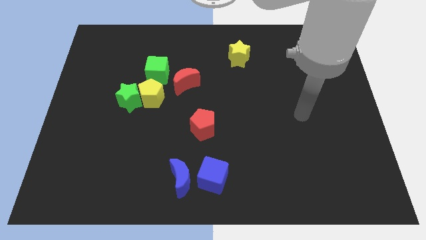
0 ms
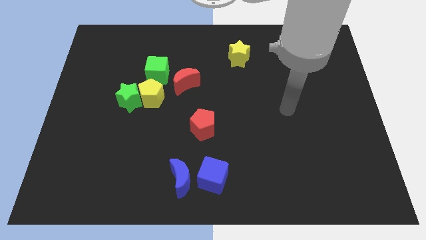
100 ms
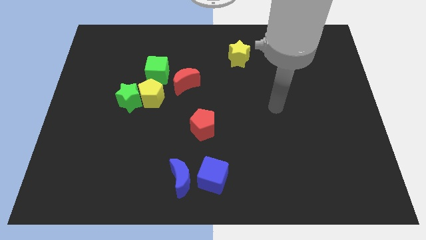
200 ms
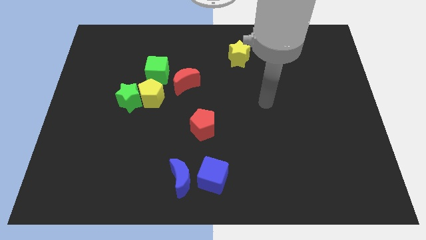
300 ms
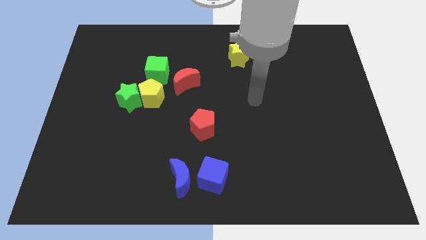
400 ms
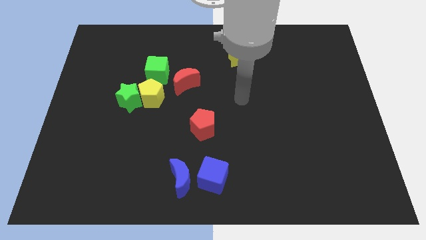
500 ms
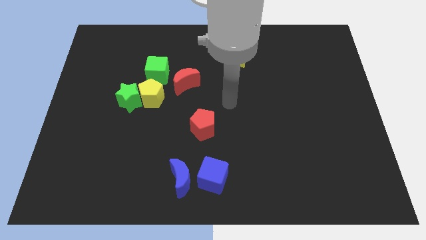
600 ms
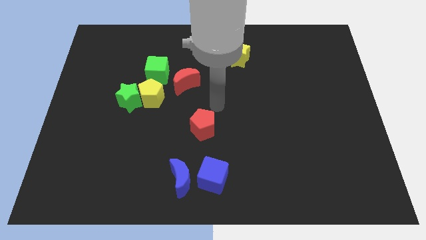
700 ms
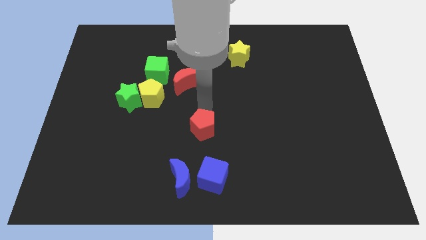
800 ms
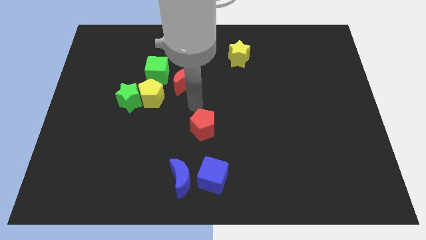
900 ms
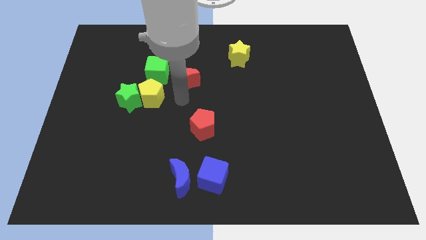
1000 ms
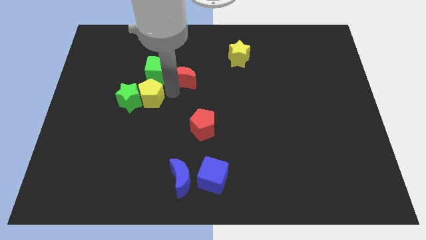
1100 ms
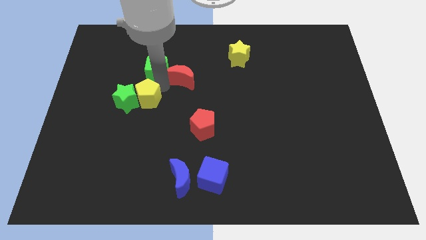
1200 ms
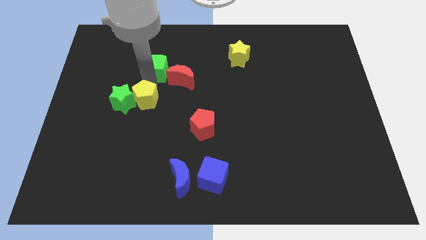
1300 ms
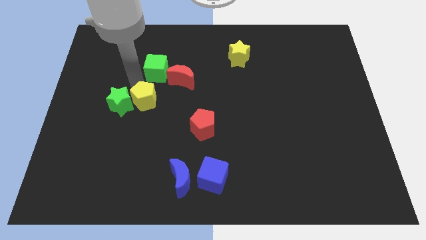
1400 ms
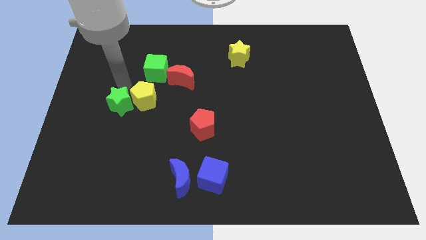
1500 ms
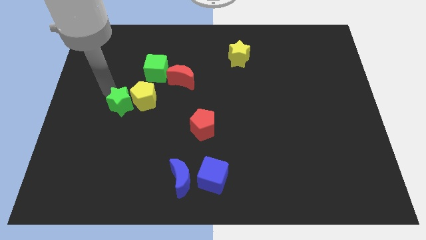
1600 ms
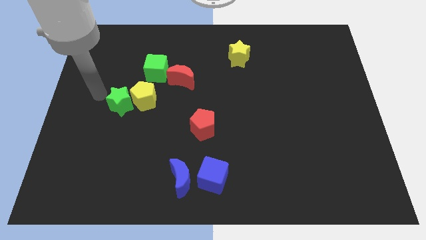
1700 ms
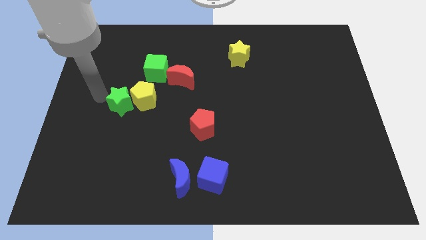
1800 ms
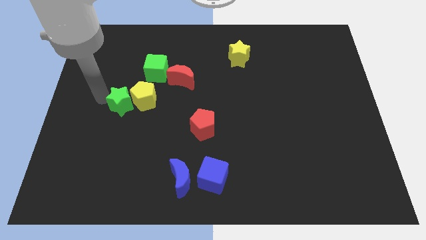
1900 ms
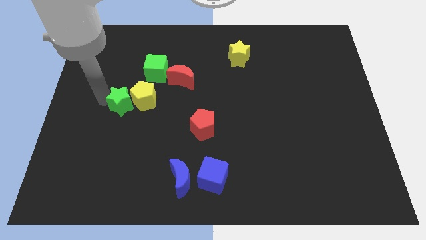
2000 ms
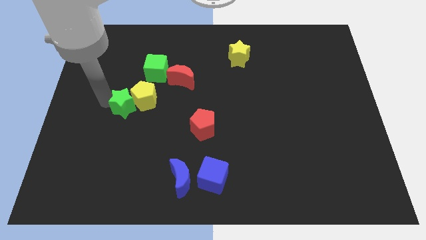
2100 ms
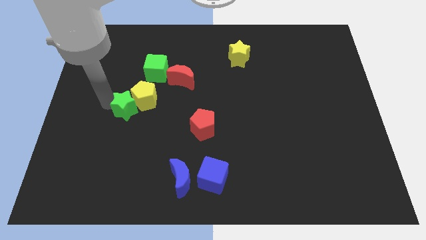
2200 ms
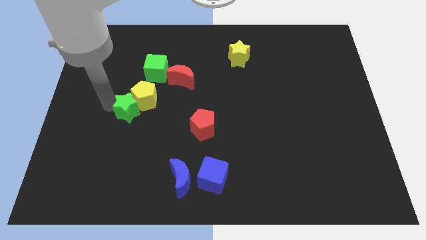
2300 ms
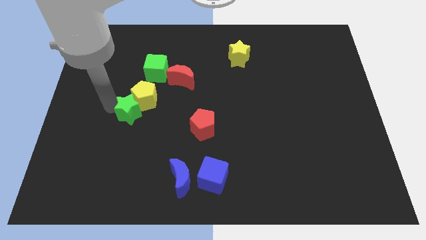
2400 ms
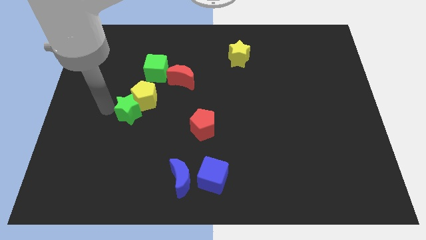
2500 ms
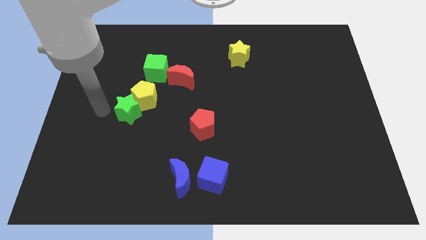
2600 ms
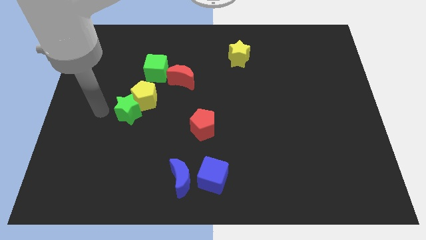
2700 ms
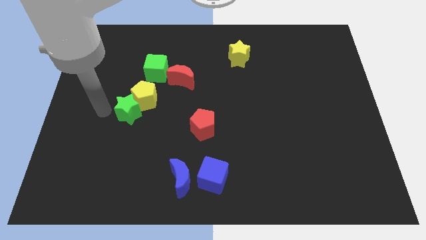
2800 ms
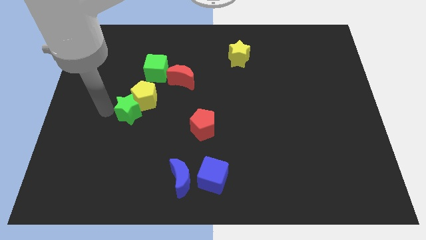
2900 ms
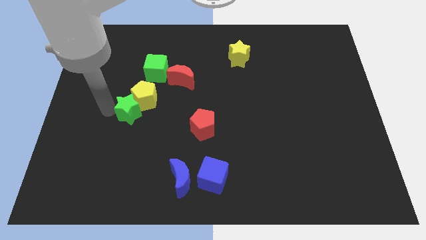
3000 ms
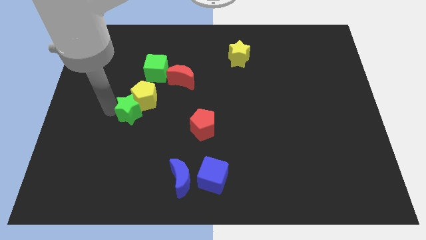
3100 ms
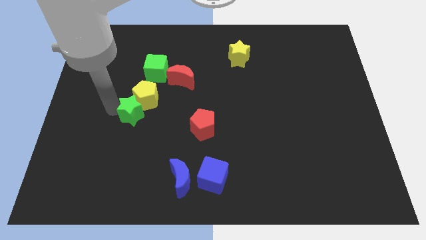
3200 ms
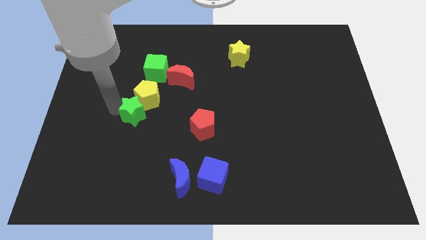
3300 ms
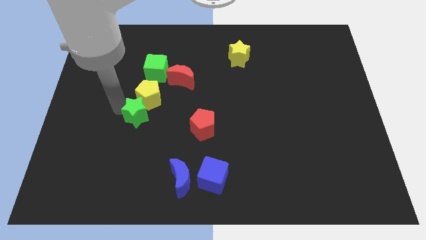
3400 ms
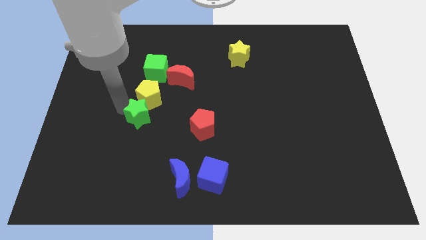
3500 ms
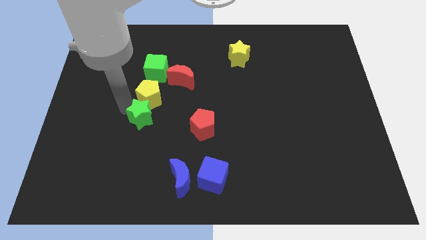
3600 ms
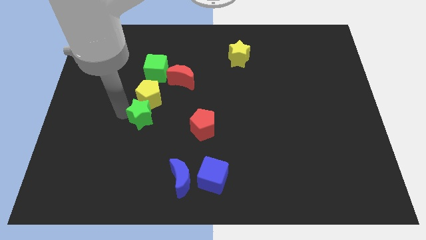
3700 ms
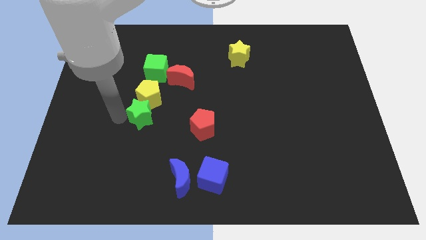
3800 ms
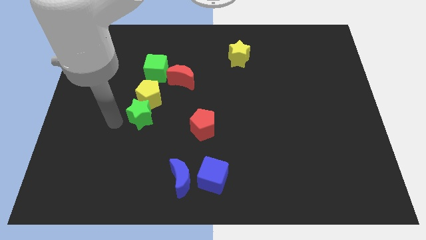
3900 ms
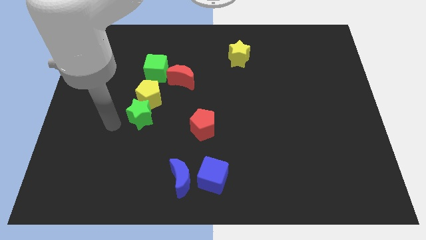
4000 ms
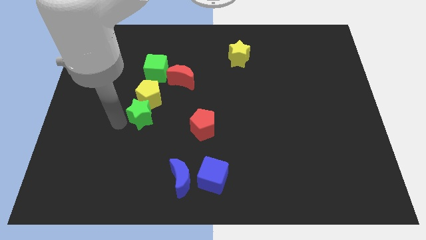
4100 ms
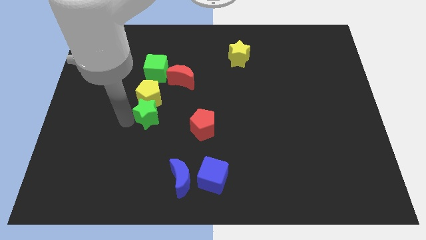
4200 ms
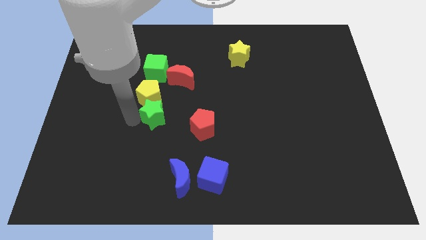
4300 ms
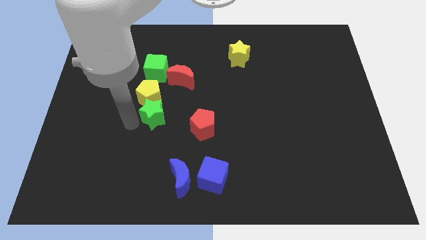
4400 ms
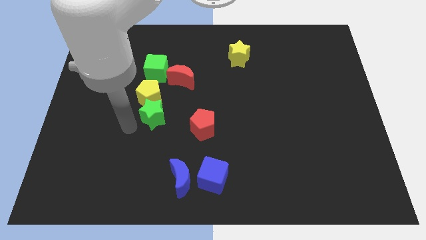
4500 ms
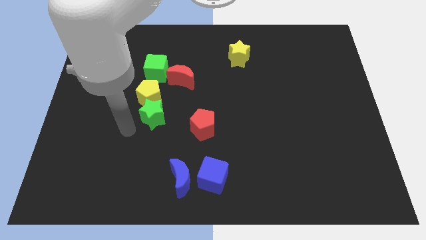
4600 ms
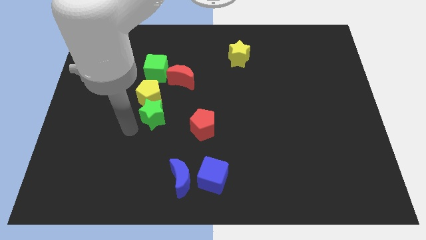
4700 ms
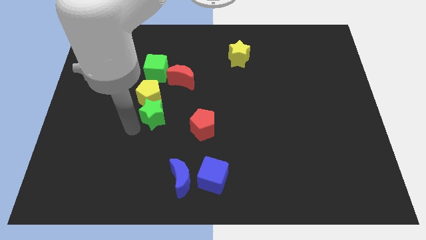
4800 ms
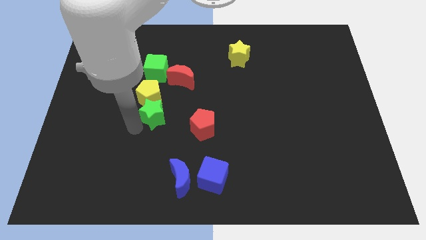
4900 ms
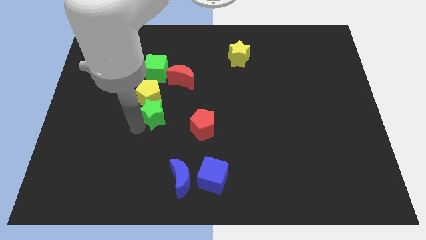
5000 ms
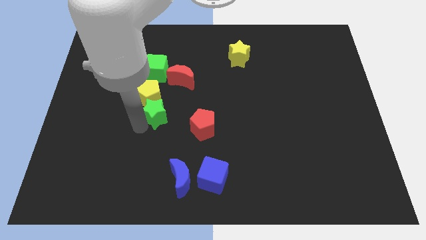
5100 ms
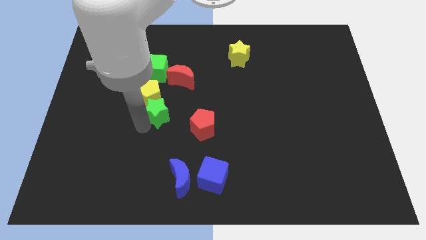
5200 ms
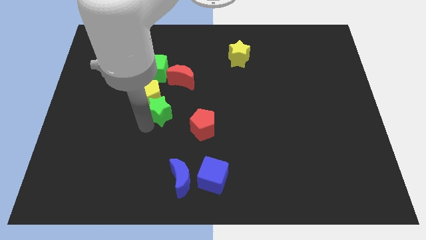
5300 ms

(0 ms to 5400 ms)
slightly slide the green star right

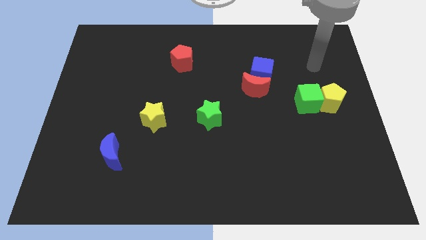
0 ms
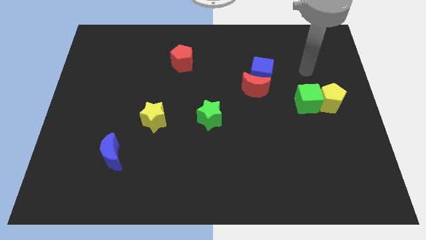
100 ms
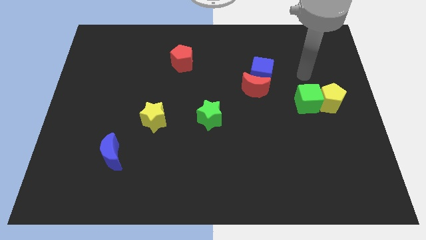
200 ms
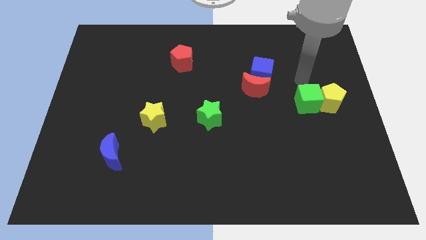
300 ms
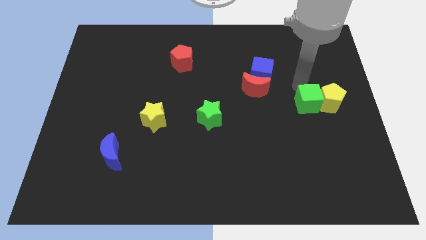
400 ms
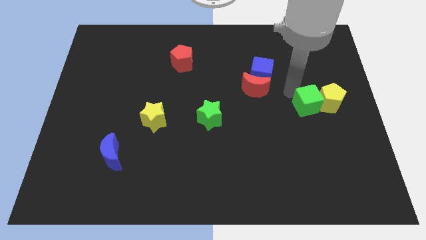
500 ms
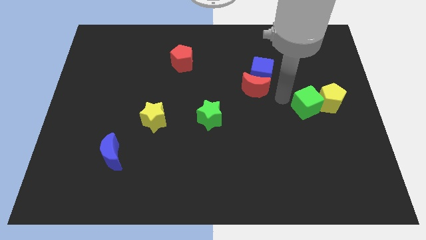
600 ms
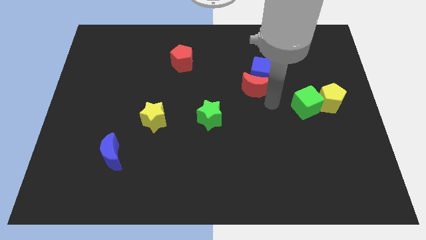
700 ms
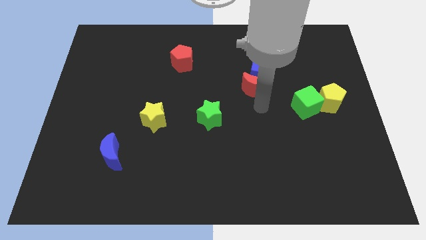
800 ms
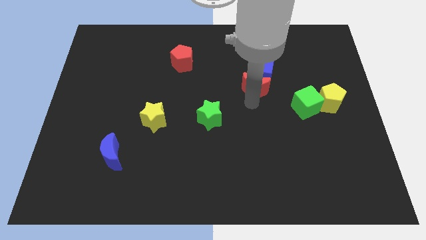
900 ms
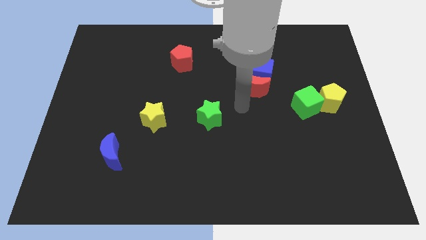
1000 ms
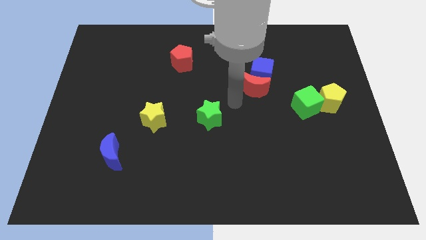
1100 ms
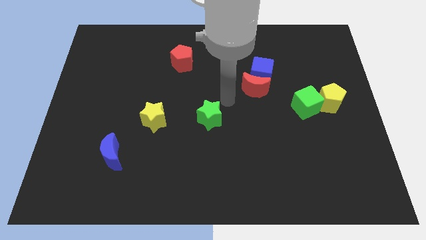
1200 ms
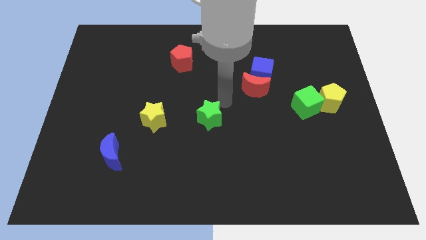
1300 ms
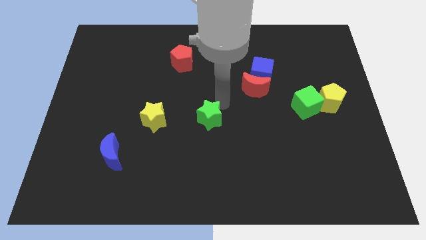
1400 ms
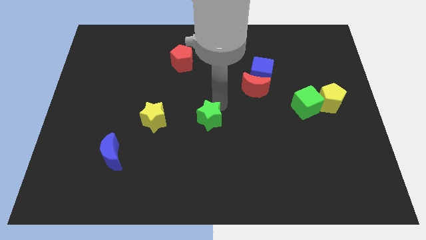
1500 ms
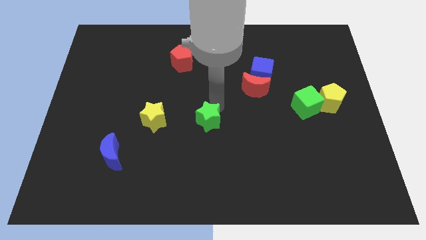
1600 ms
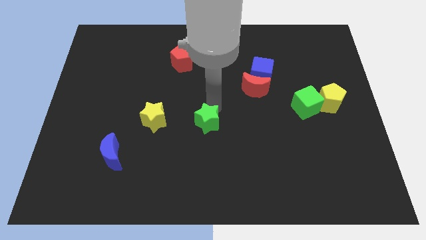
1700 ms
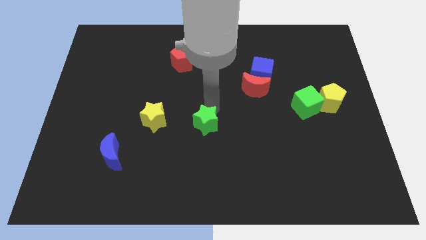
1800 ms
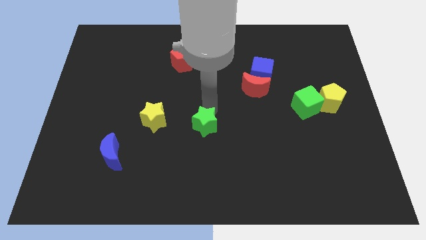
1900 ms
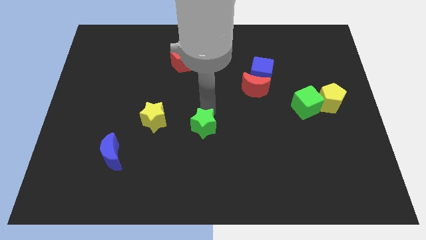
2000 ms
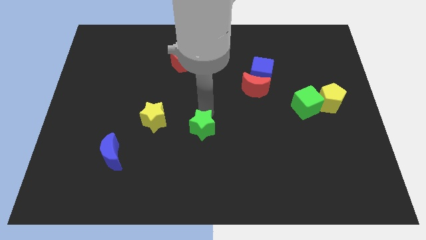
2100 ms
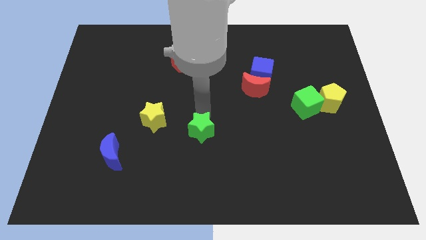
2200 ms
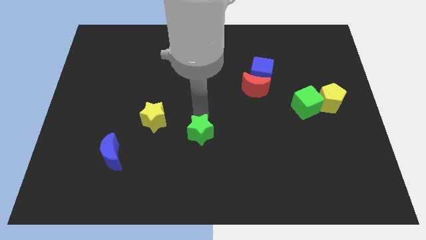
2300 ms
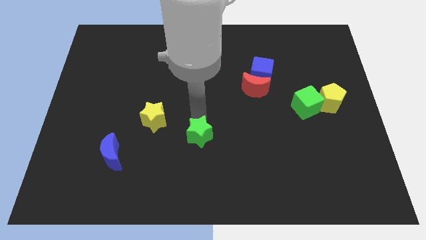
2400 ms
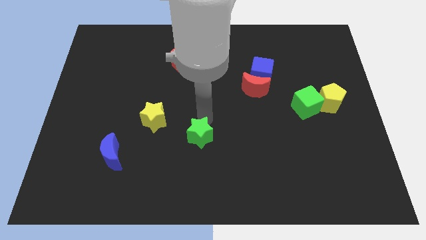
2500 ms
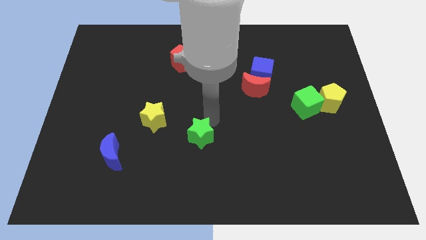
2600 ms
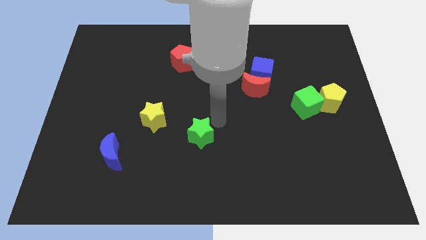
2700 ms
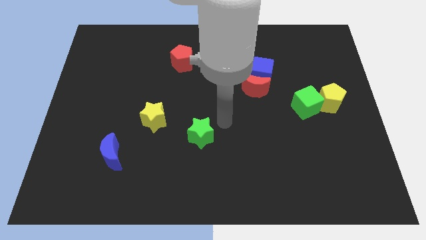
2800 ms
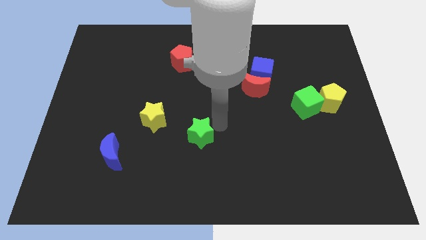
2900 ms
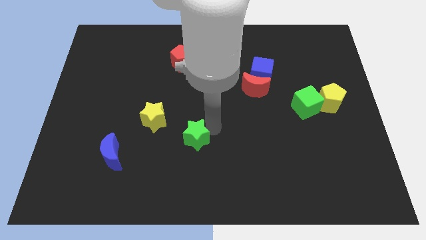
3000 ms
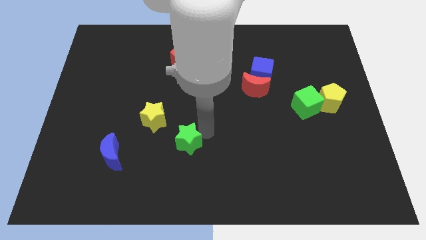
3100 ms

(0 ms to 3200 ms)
move the green star down and then left somewhat
